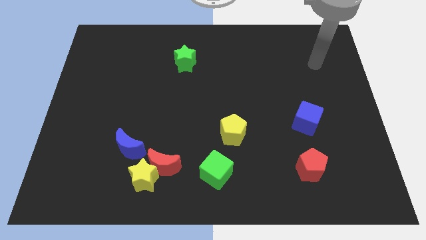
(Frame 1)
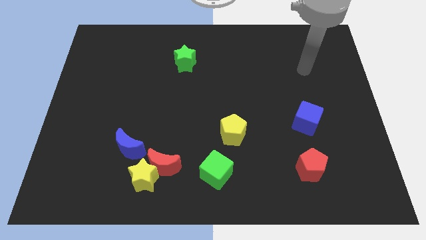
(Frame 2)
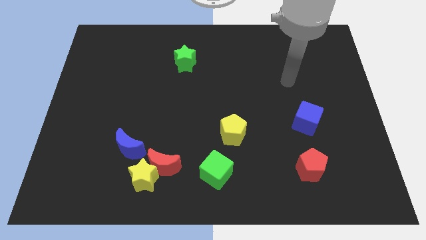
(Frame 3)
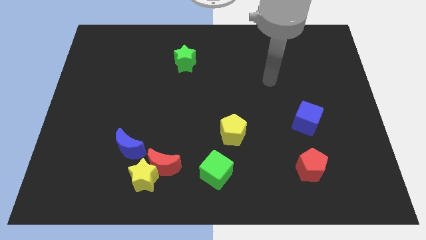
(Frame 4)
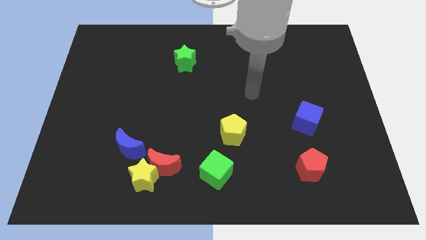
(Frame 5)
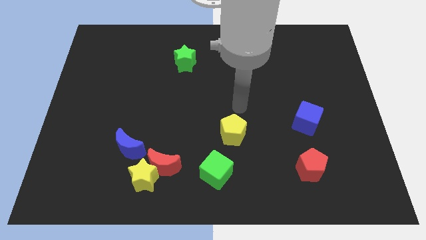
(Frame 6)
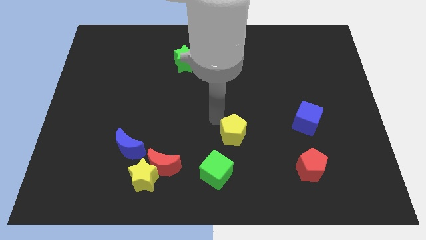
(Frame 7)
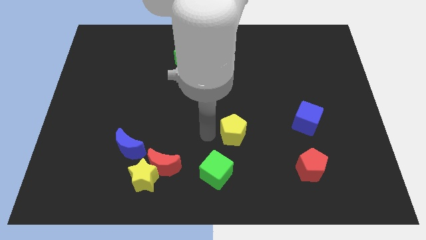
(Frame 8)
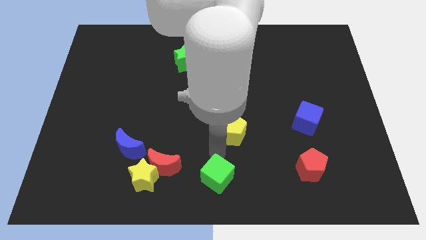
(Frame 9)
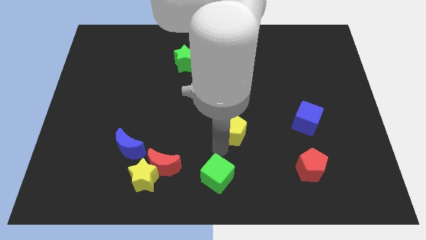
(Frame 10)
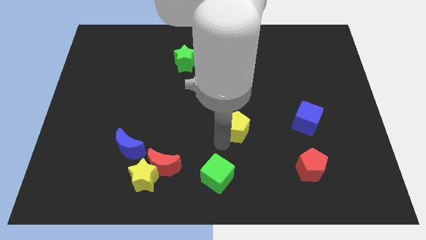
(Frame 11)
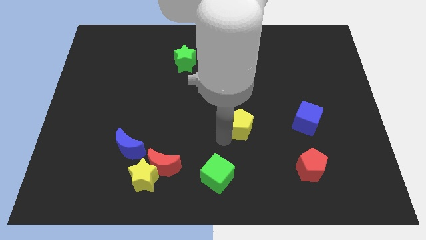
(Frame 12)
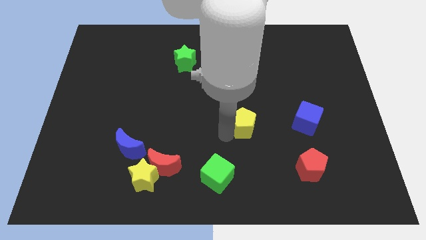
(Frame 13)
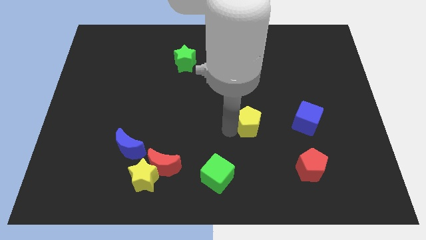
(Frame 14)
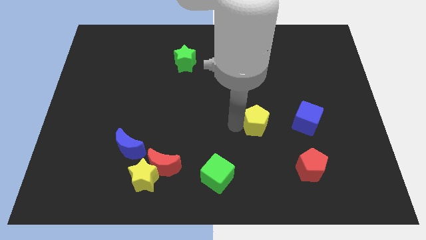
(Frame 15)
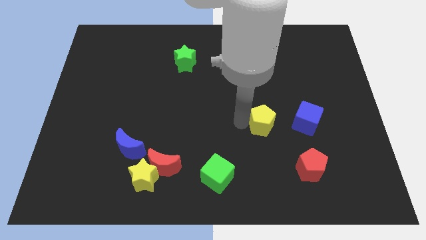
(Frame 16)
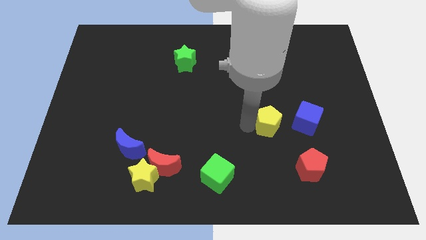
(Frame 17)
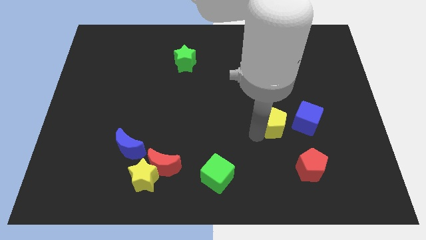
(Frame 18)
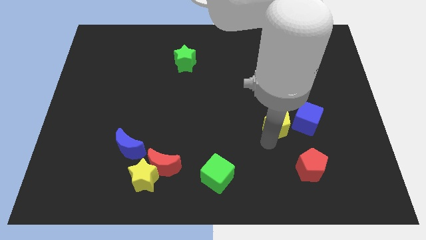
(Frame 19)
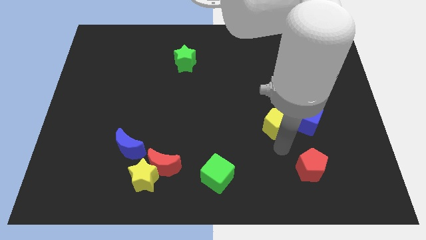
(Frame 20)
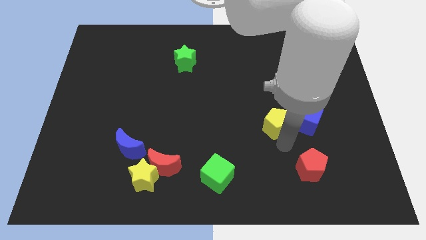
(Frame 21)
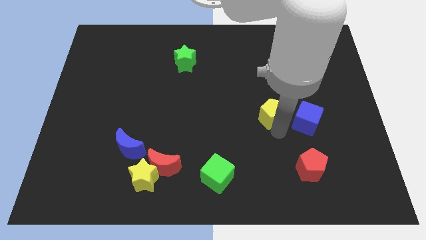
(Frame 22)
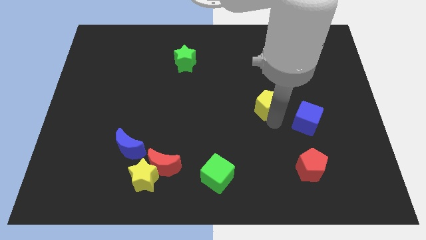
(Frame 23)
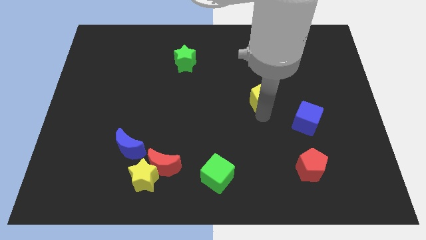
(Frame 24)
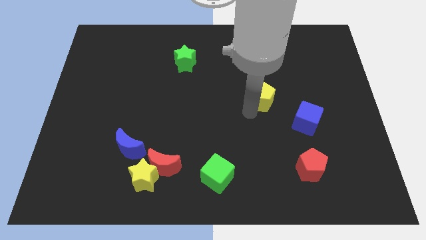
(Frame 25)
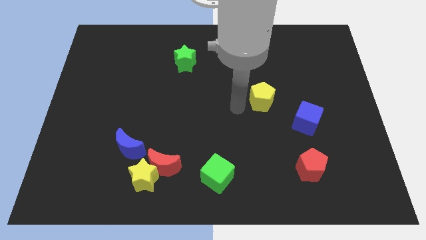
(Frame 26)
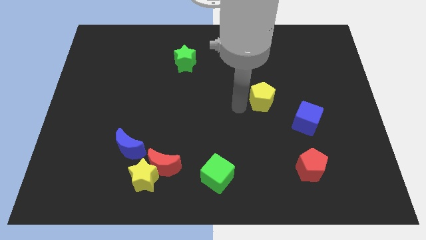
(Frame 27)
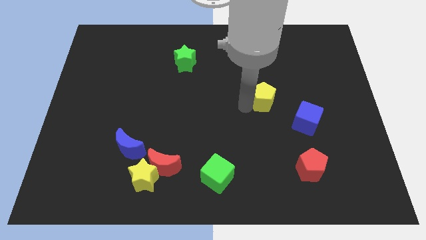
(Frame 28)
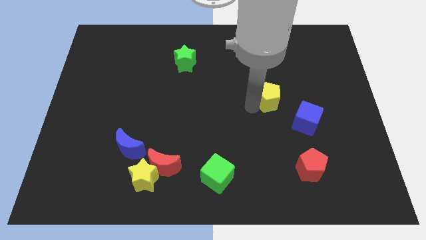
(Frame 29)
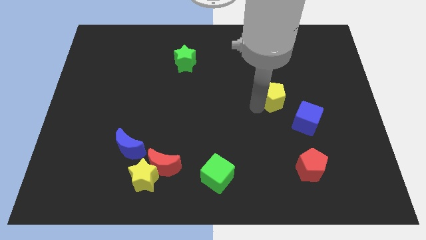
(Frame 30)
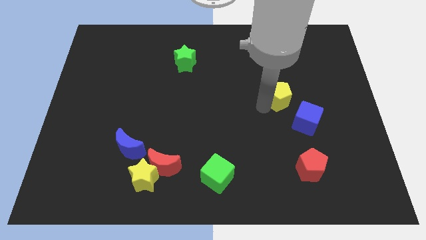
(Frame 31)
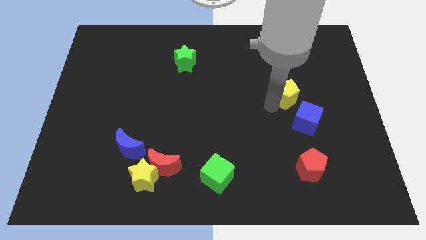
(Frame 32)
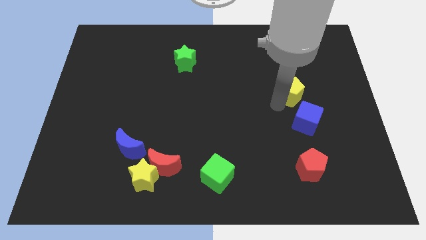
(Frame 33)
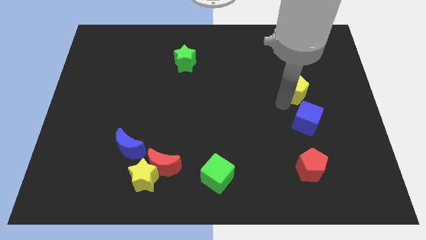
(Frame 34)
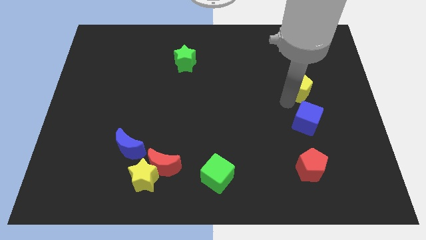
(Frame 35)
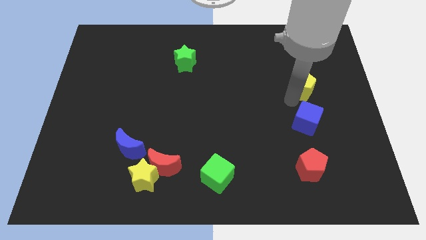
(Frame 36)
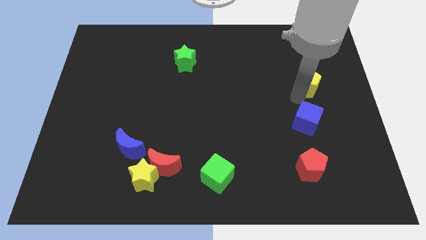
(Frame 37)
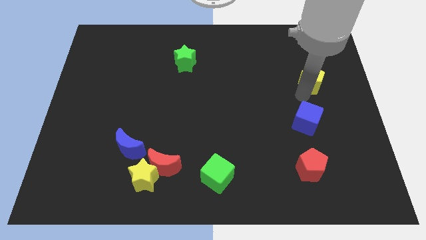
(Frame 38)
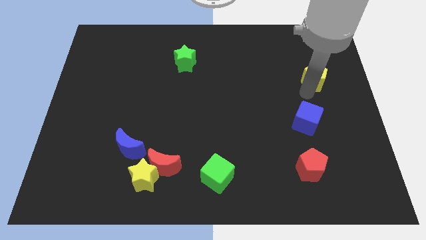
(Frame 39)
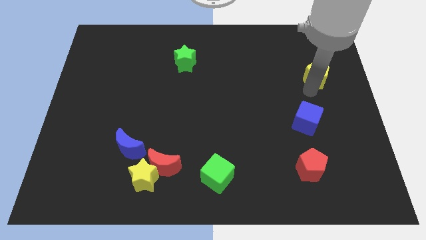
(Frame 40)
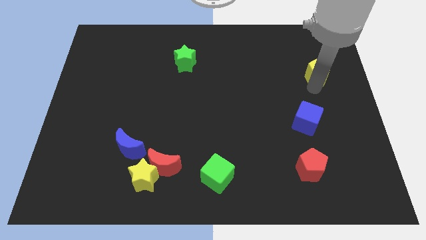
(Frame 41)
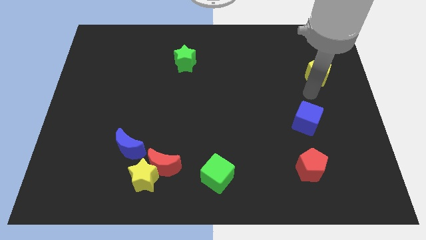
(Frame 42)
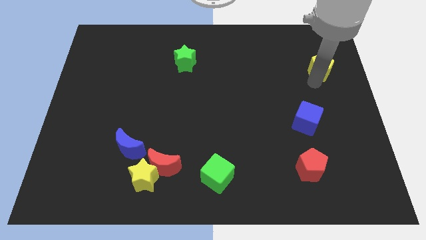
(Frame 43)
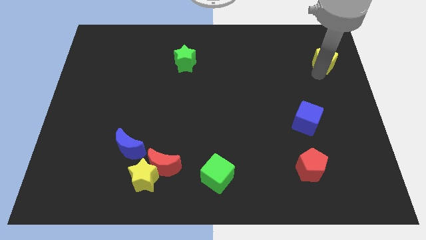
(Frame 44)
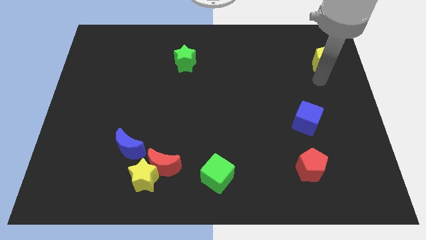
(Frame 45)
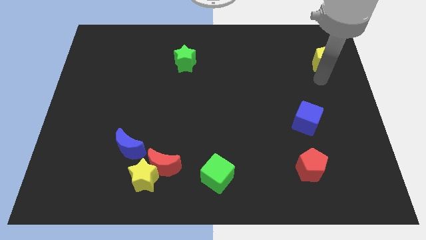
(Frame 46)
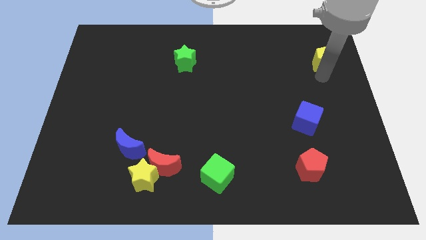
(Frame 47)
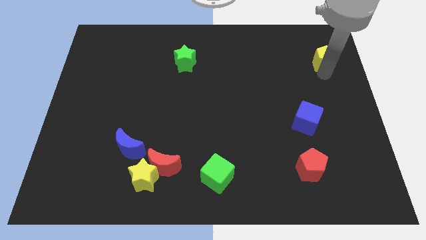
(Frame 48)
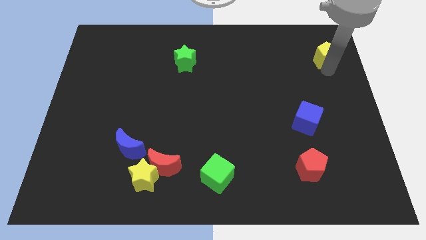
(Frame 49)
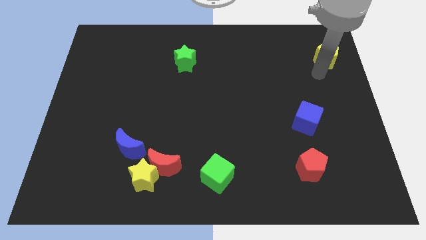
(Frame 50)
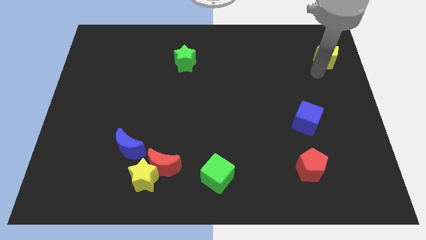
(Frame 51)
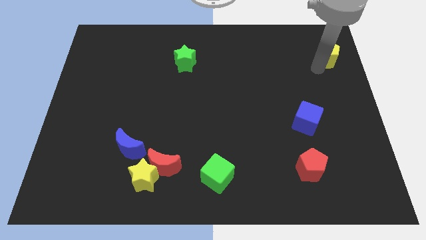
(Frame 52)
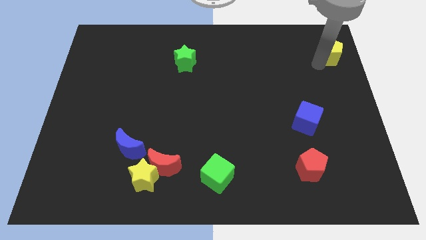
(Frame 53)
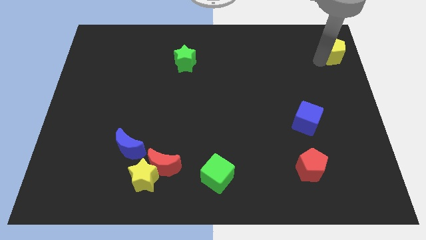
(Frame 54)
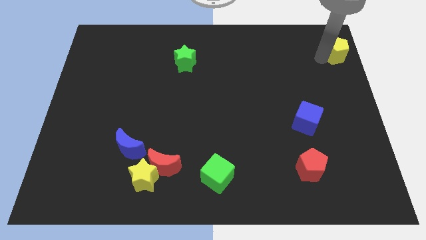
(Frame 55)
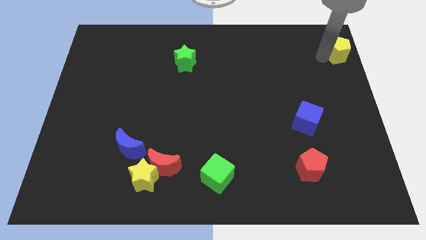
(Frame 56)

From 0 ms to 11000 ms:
slide the yellow pentagon to the top right of the board

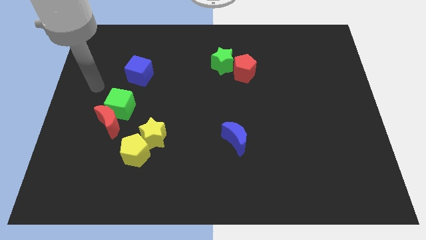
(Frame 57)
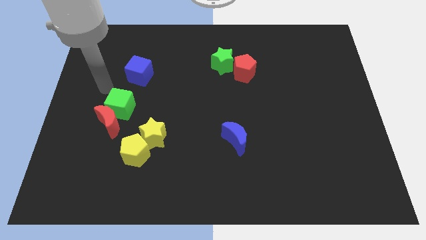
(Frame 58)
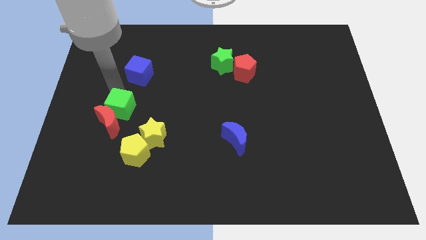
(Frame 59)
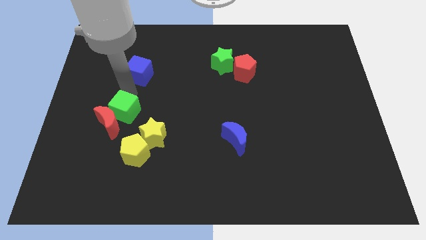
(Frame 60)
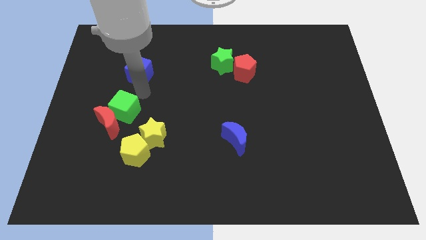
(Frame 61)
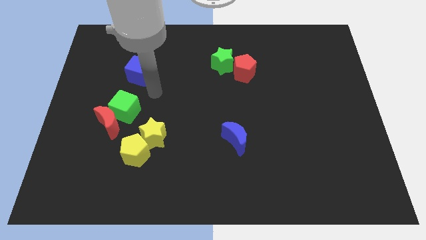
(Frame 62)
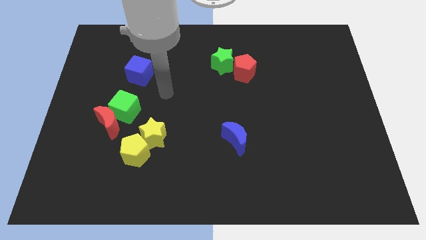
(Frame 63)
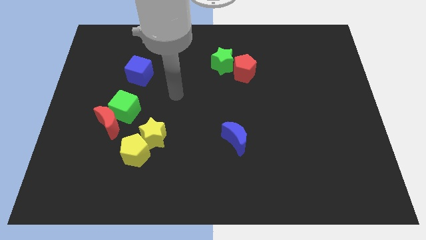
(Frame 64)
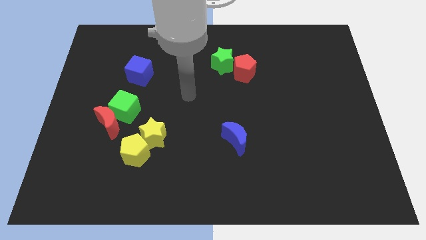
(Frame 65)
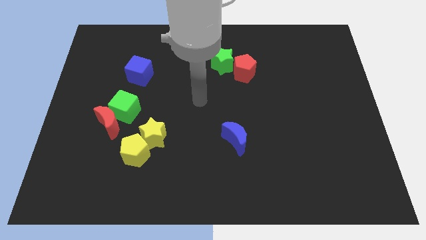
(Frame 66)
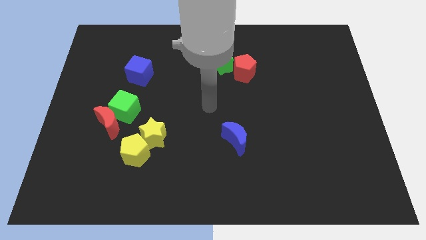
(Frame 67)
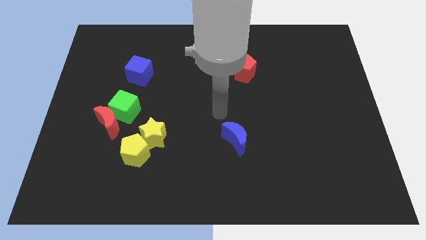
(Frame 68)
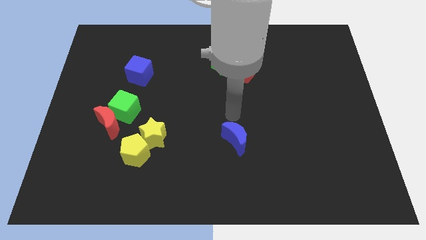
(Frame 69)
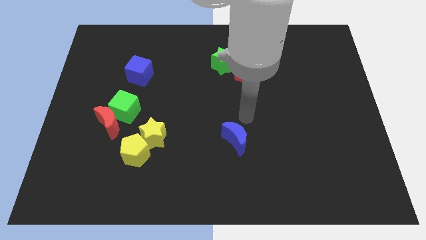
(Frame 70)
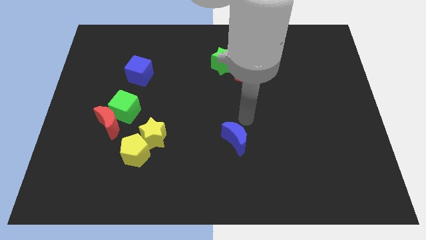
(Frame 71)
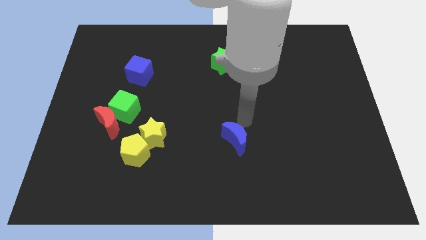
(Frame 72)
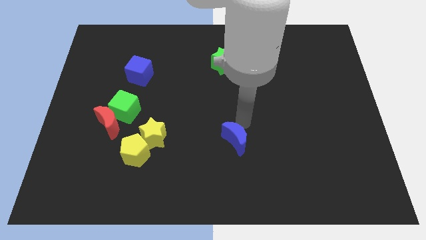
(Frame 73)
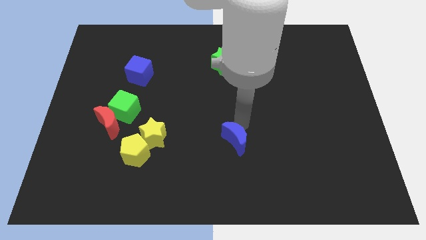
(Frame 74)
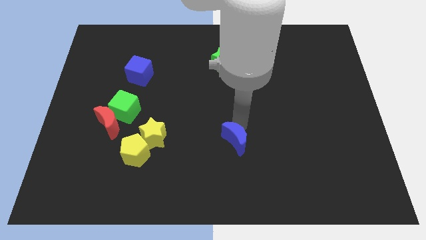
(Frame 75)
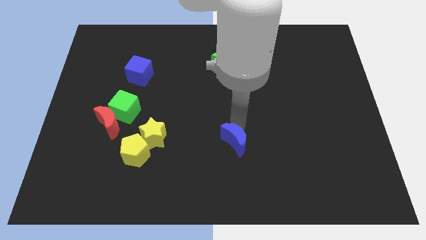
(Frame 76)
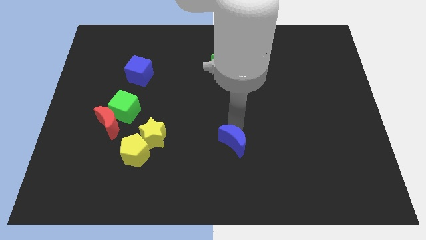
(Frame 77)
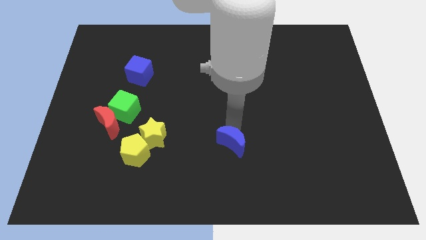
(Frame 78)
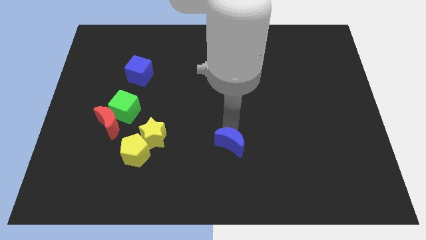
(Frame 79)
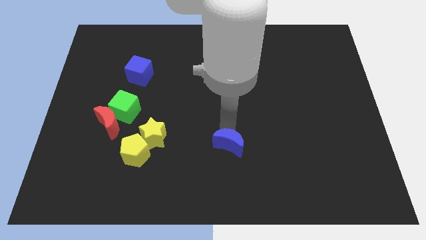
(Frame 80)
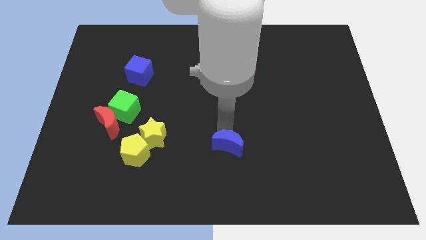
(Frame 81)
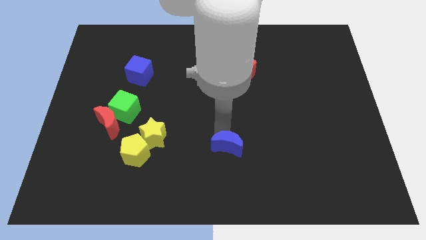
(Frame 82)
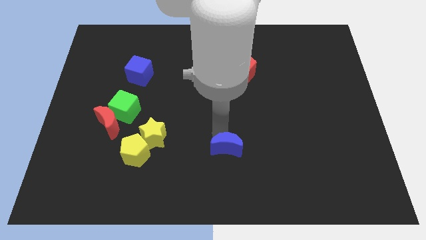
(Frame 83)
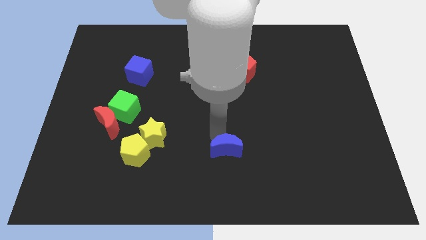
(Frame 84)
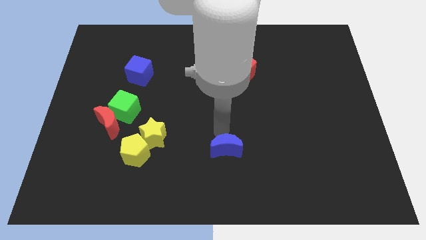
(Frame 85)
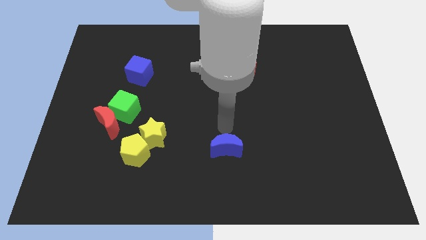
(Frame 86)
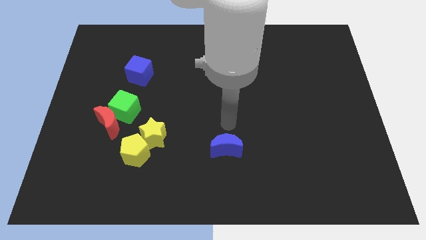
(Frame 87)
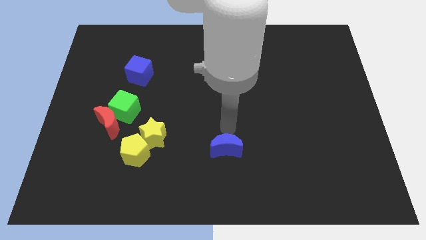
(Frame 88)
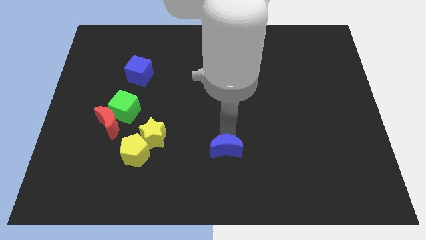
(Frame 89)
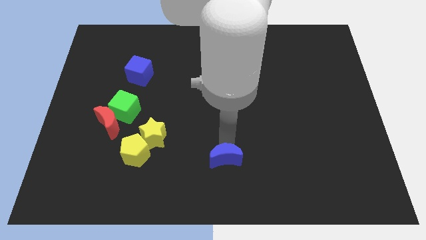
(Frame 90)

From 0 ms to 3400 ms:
move the blue moon to the bottom side
